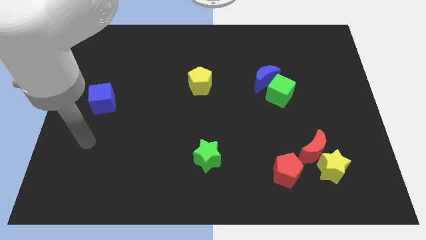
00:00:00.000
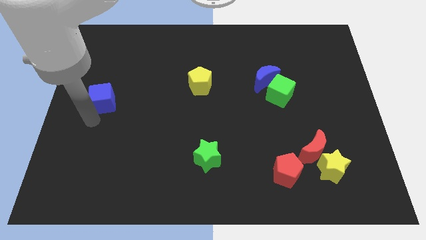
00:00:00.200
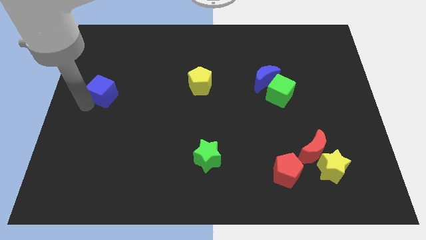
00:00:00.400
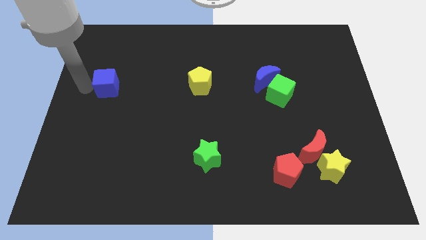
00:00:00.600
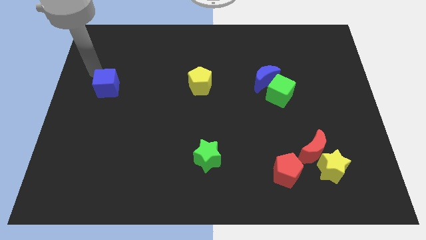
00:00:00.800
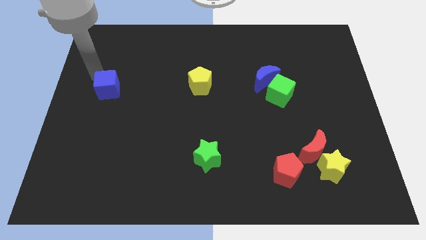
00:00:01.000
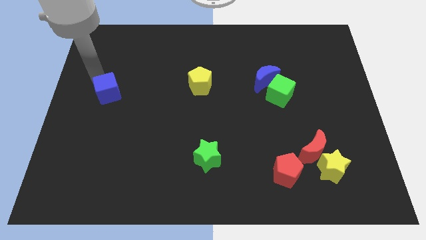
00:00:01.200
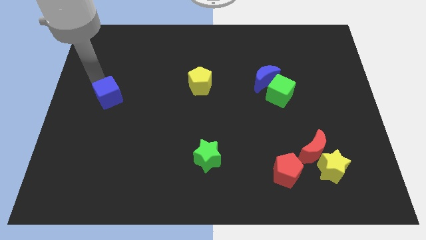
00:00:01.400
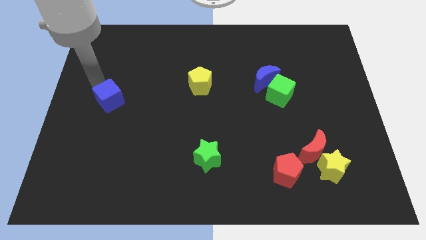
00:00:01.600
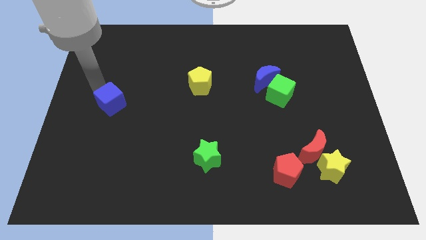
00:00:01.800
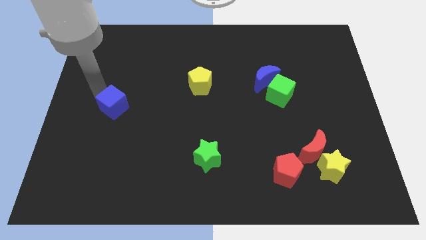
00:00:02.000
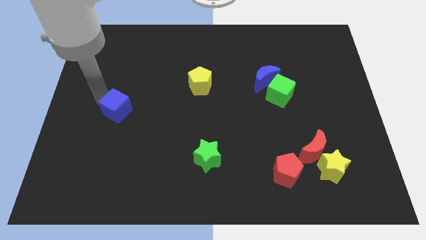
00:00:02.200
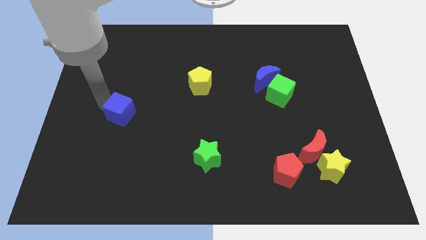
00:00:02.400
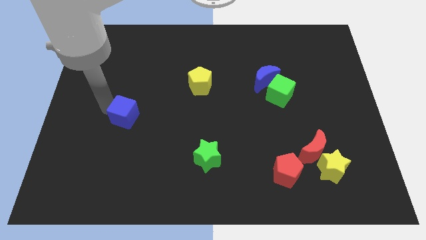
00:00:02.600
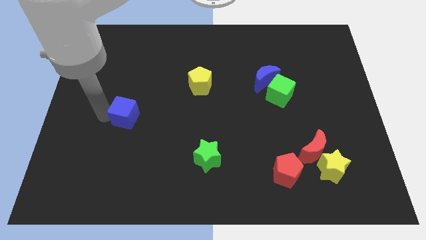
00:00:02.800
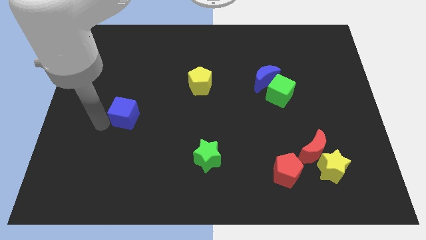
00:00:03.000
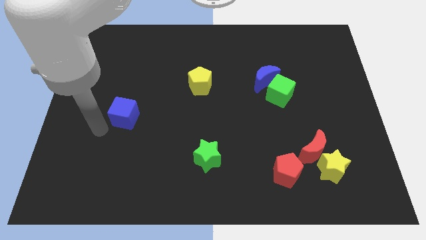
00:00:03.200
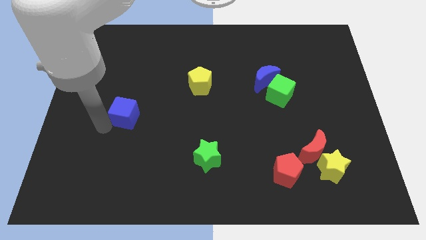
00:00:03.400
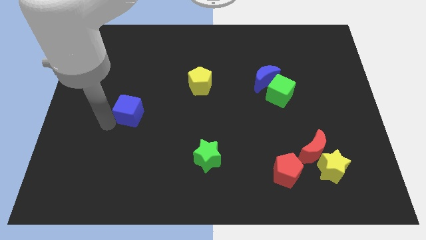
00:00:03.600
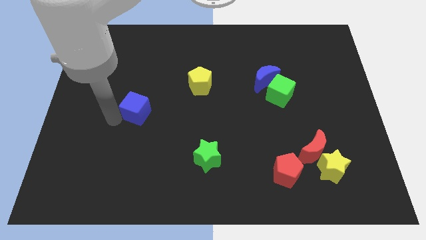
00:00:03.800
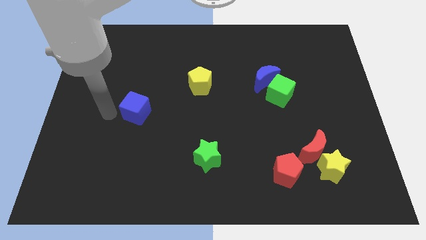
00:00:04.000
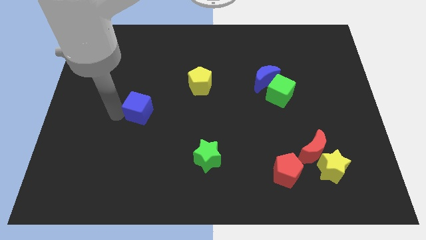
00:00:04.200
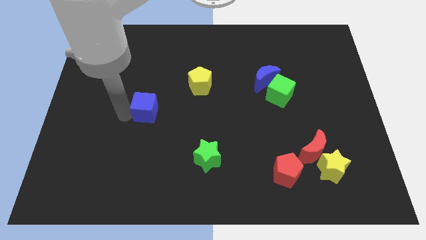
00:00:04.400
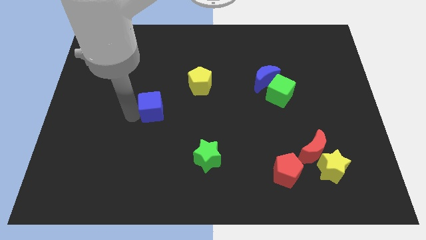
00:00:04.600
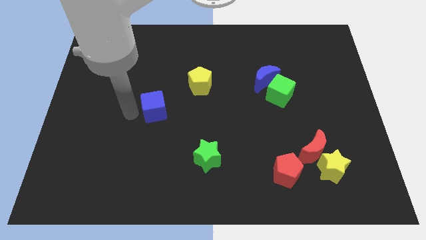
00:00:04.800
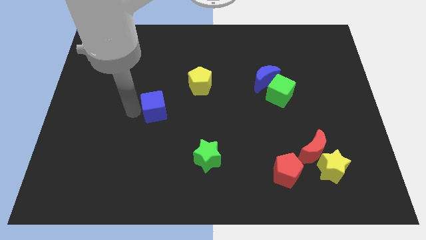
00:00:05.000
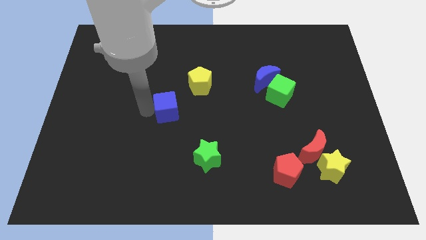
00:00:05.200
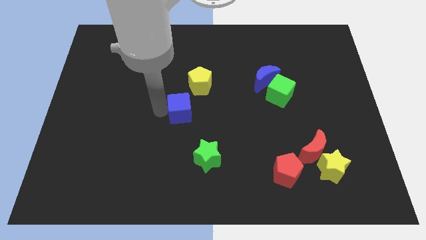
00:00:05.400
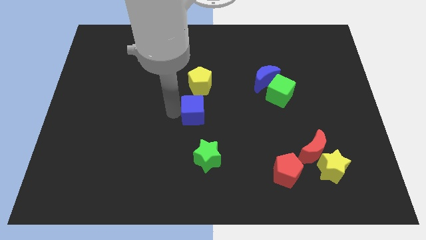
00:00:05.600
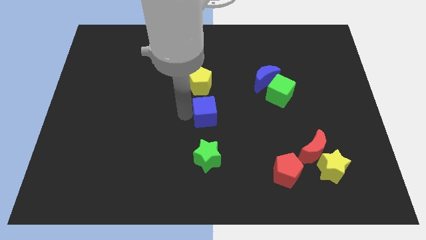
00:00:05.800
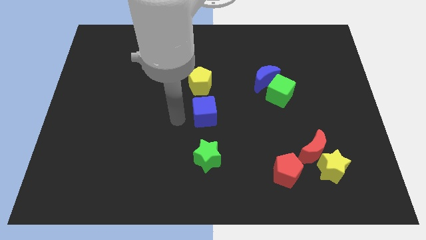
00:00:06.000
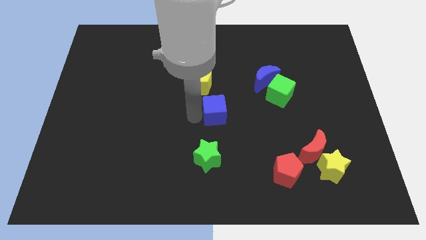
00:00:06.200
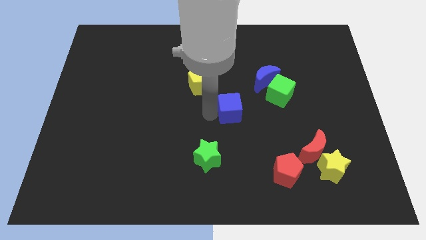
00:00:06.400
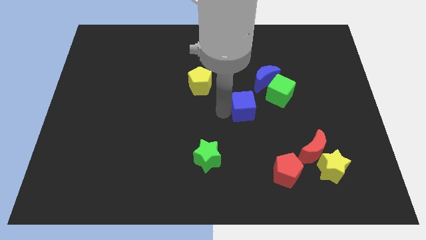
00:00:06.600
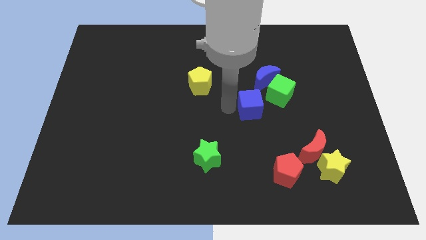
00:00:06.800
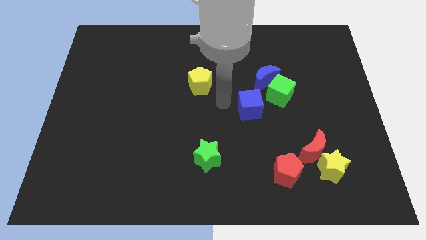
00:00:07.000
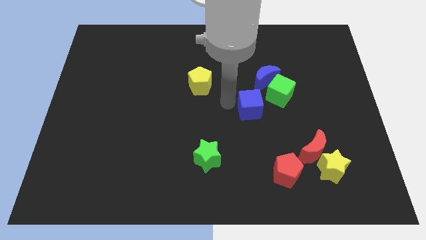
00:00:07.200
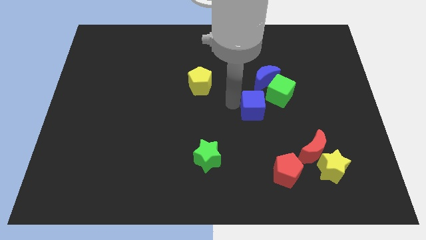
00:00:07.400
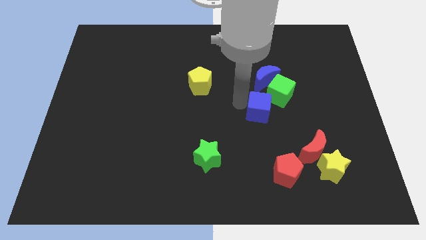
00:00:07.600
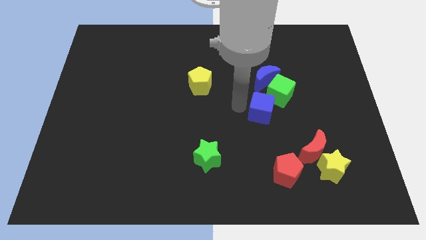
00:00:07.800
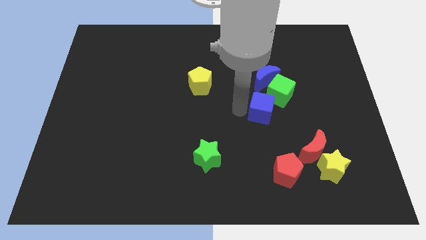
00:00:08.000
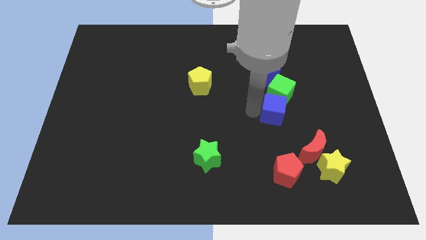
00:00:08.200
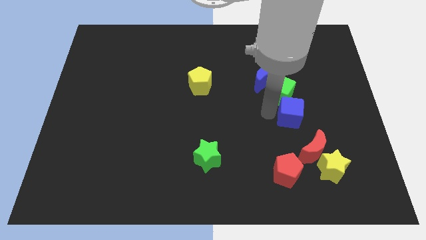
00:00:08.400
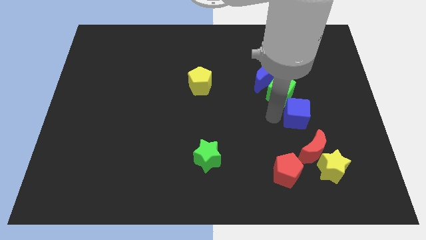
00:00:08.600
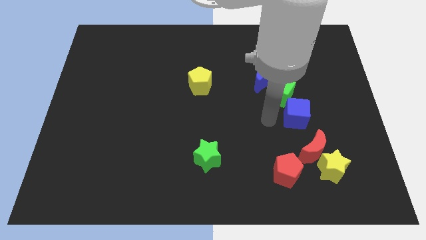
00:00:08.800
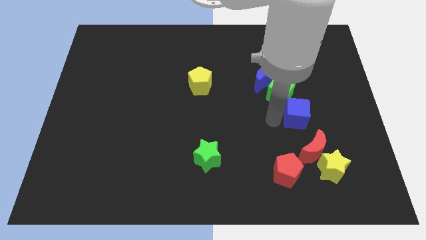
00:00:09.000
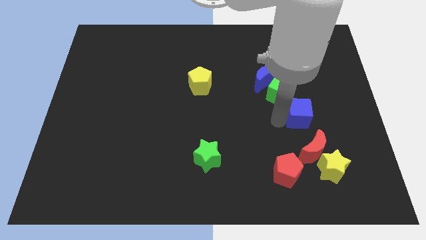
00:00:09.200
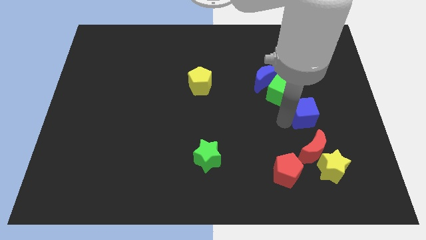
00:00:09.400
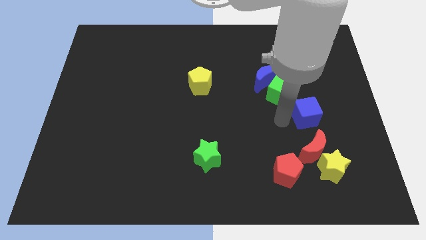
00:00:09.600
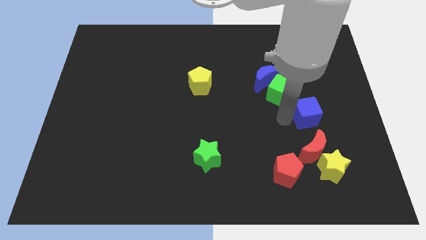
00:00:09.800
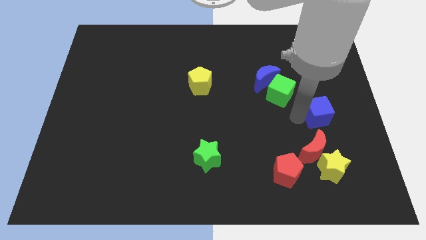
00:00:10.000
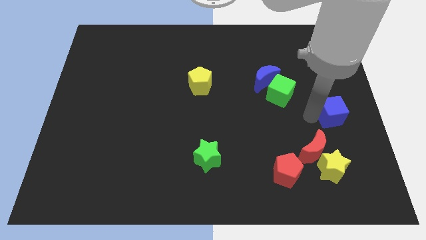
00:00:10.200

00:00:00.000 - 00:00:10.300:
slide the blue cube to the right side of the board

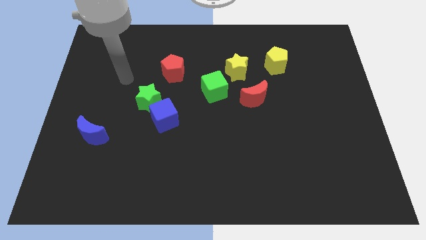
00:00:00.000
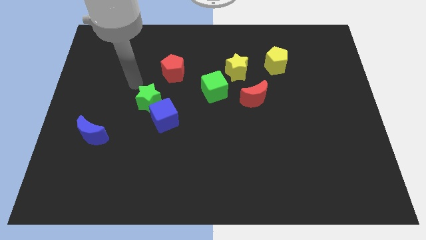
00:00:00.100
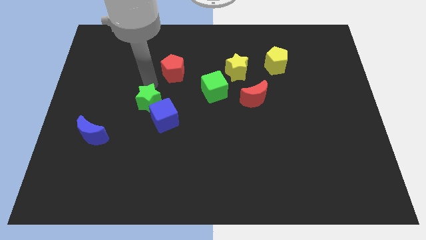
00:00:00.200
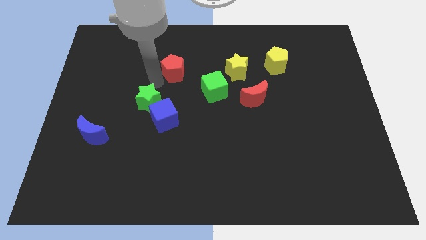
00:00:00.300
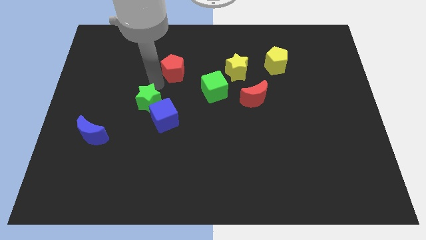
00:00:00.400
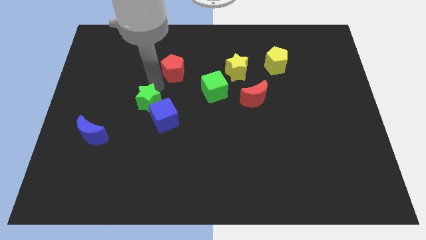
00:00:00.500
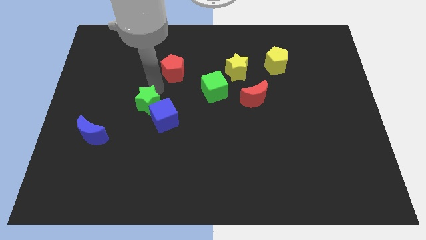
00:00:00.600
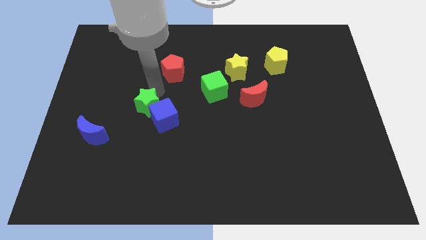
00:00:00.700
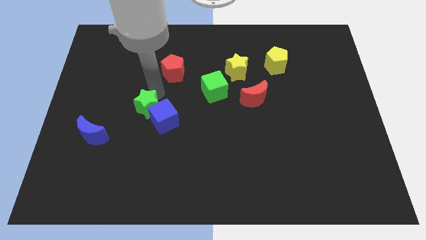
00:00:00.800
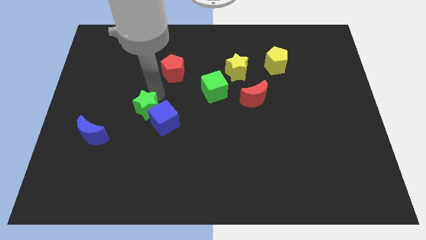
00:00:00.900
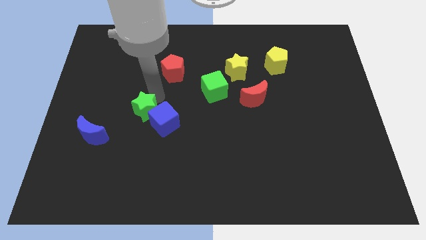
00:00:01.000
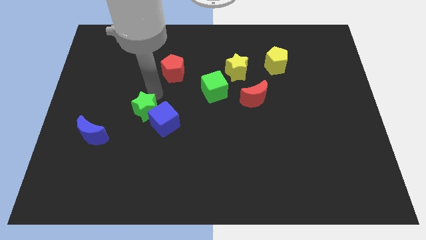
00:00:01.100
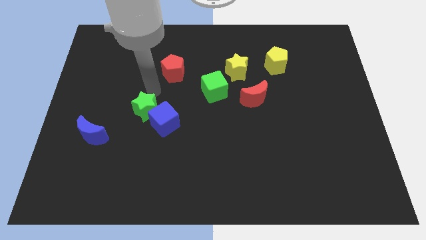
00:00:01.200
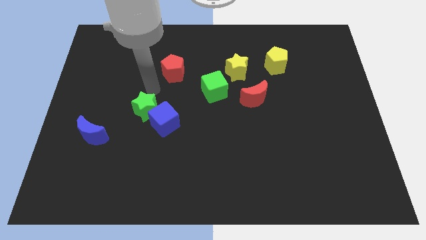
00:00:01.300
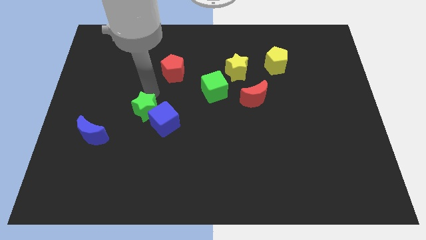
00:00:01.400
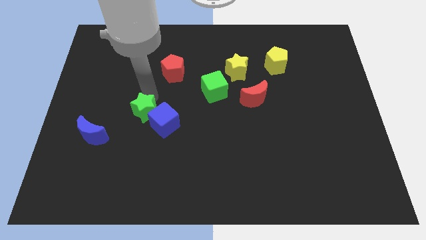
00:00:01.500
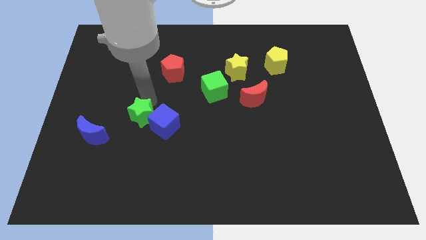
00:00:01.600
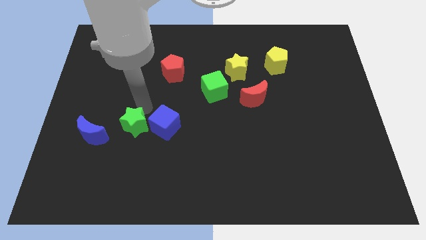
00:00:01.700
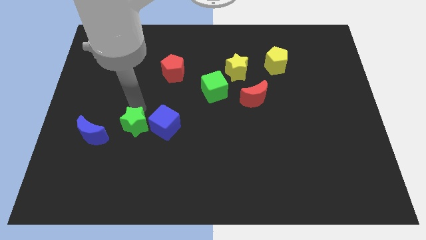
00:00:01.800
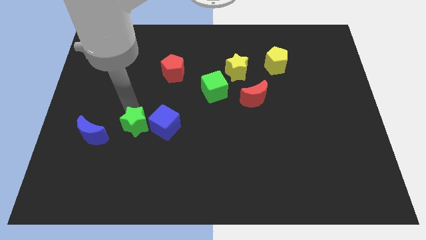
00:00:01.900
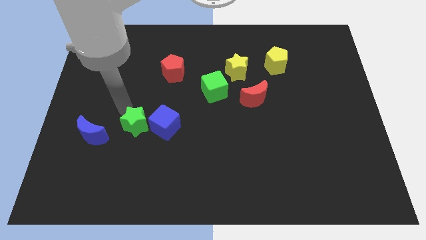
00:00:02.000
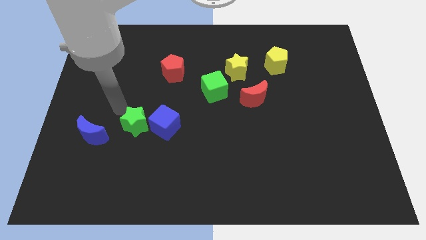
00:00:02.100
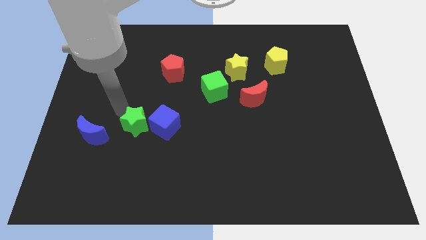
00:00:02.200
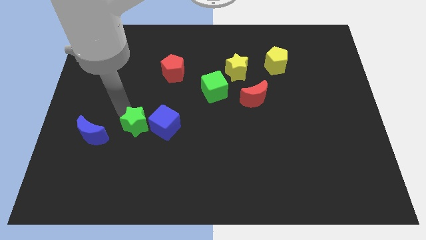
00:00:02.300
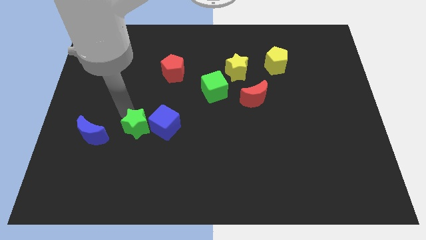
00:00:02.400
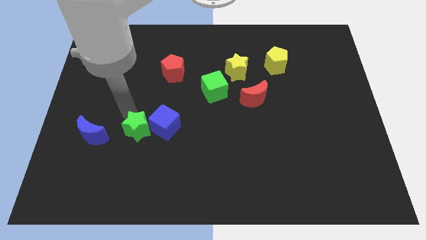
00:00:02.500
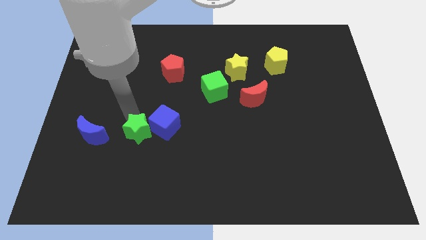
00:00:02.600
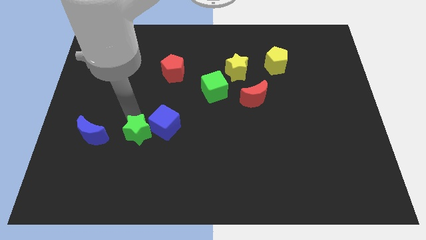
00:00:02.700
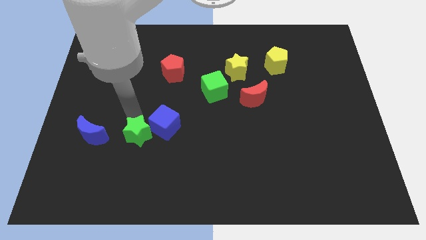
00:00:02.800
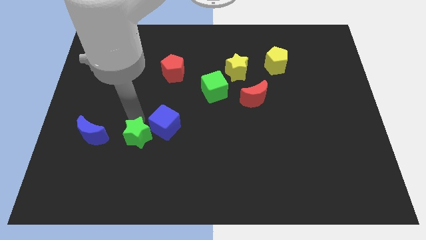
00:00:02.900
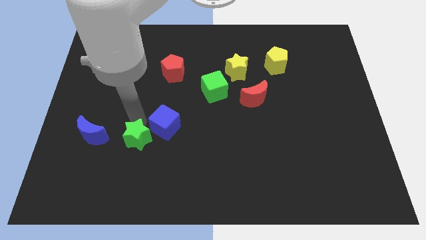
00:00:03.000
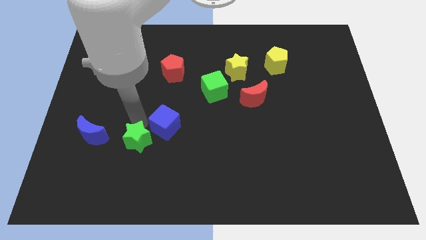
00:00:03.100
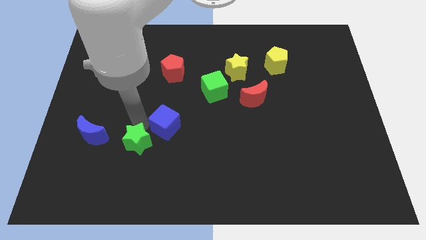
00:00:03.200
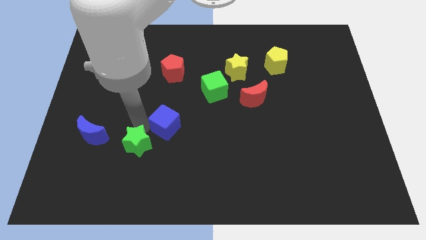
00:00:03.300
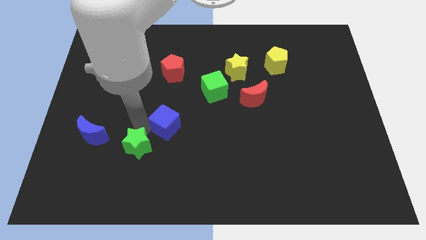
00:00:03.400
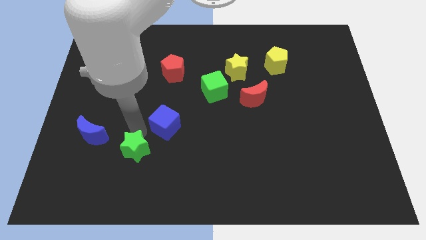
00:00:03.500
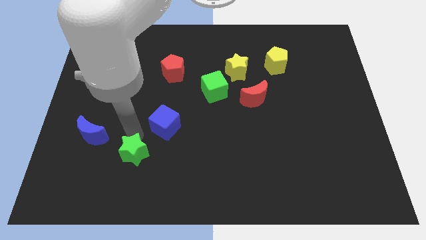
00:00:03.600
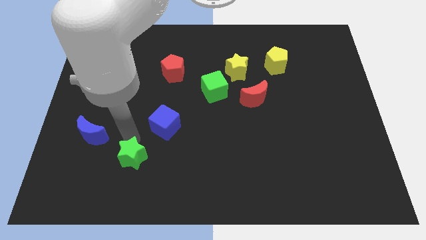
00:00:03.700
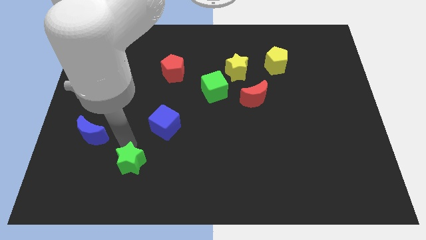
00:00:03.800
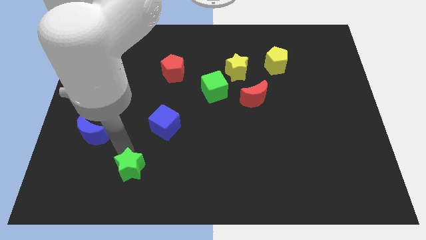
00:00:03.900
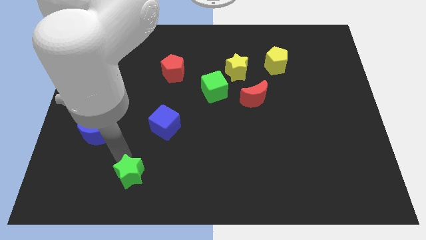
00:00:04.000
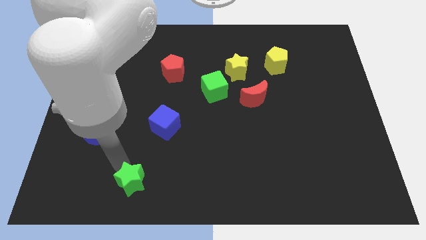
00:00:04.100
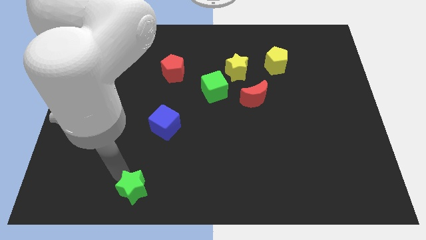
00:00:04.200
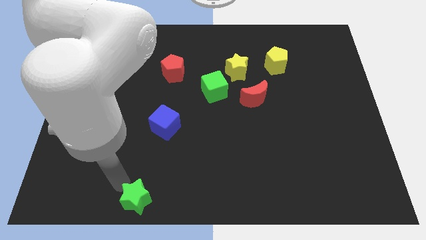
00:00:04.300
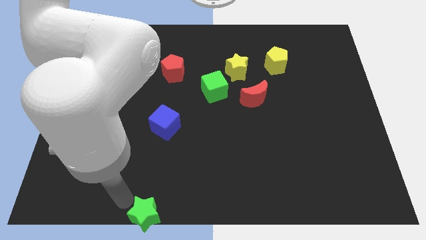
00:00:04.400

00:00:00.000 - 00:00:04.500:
push the green star to the bottom side
